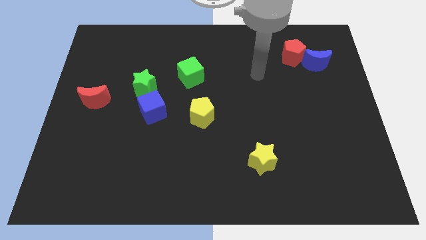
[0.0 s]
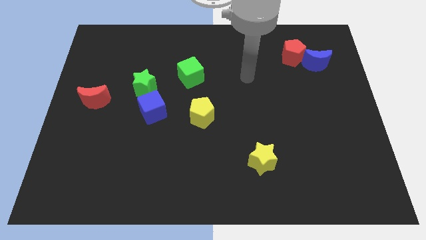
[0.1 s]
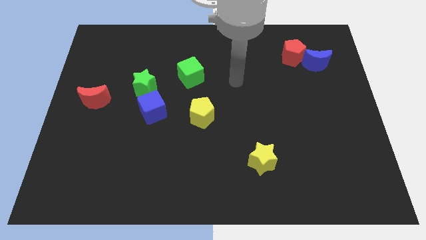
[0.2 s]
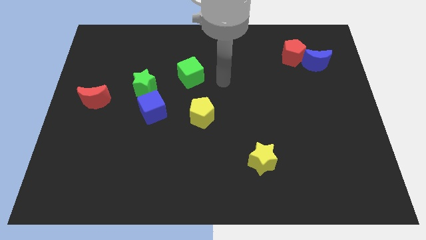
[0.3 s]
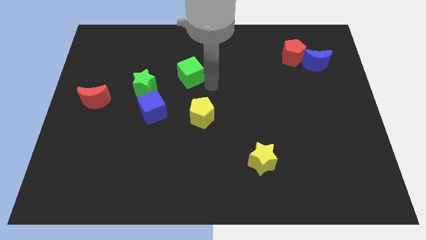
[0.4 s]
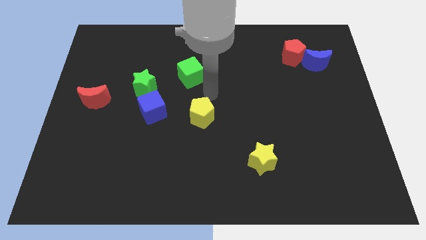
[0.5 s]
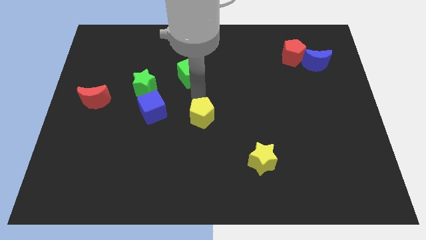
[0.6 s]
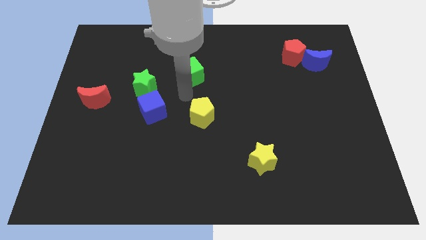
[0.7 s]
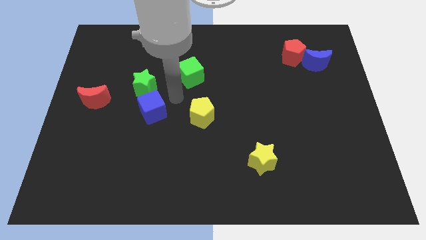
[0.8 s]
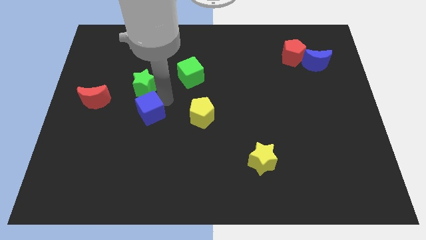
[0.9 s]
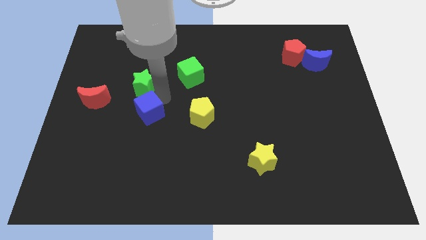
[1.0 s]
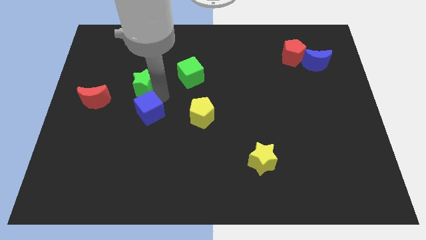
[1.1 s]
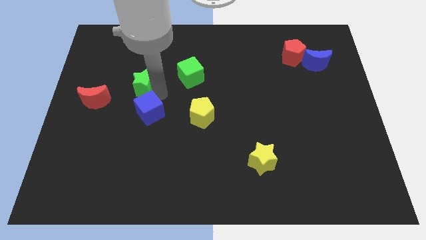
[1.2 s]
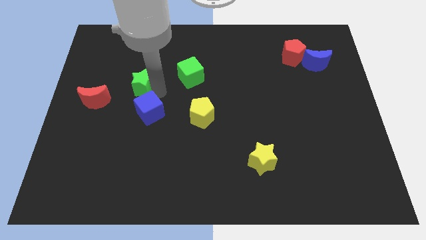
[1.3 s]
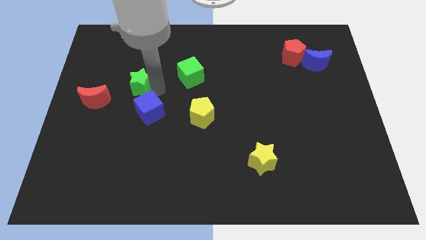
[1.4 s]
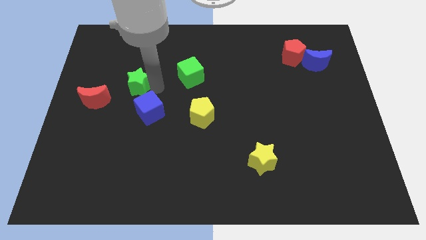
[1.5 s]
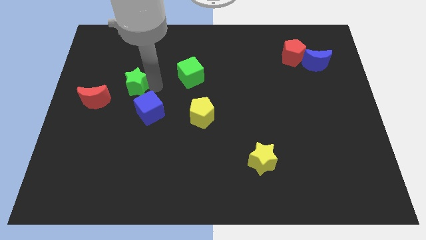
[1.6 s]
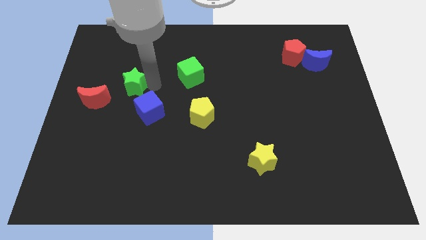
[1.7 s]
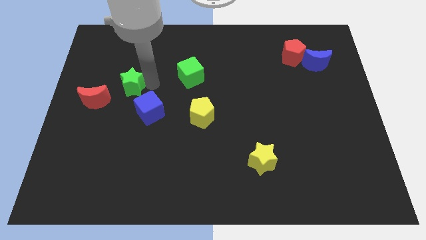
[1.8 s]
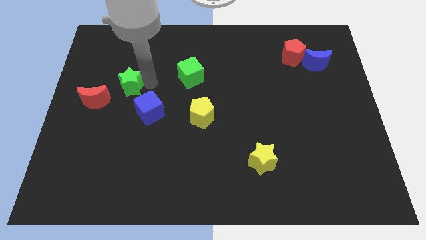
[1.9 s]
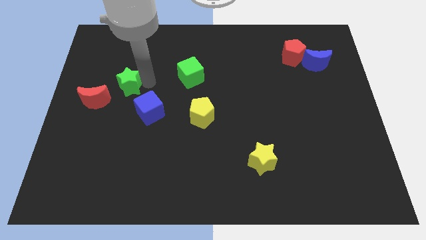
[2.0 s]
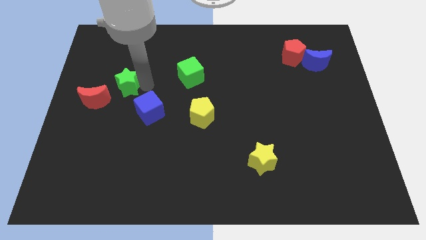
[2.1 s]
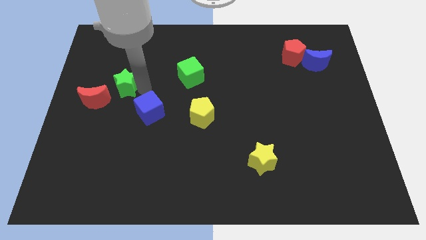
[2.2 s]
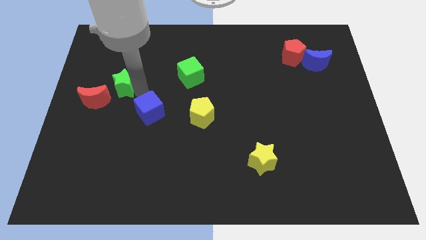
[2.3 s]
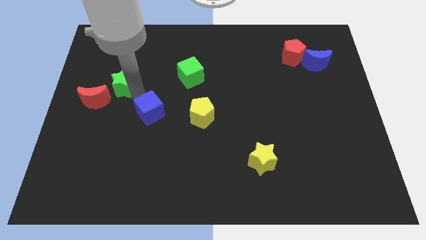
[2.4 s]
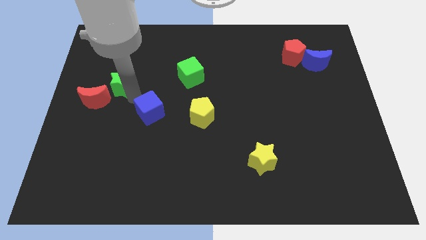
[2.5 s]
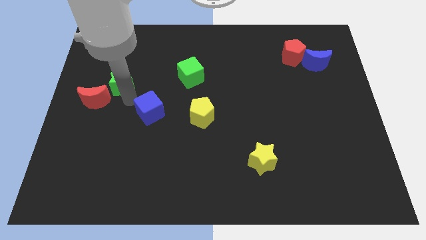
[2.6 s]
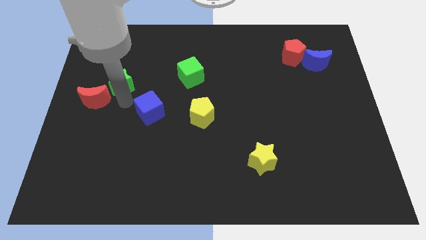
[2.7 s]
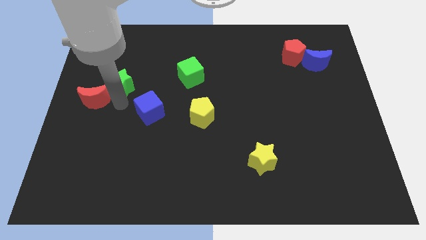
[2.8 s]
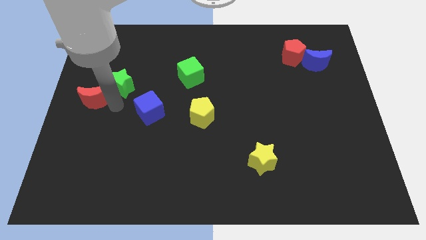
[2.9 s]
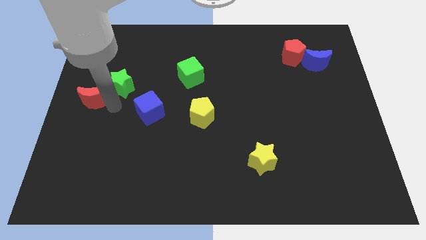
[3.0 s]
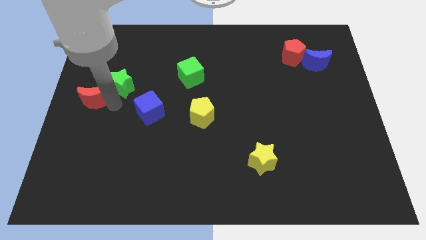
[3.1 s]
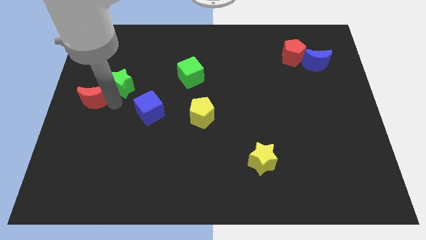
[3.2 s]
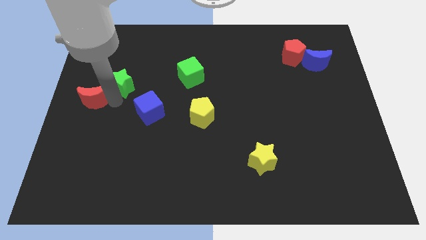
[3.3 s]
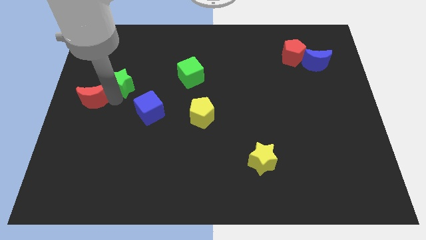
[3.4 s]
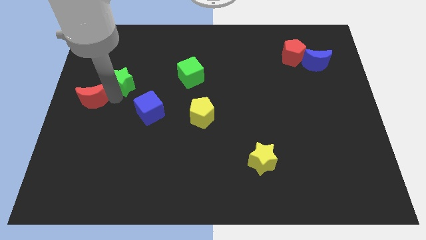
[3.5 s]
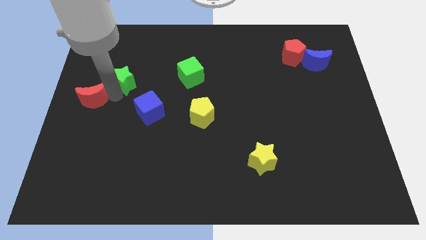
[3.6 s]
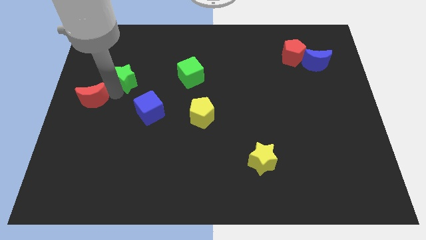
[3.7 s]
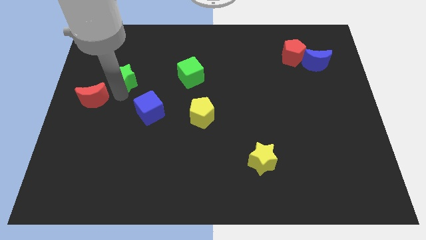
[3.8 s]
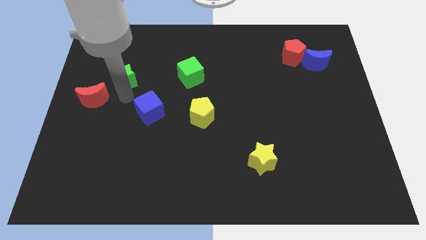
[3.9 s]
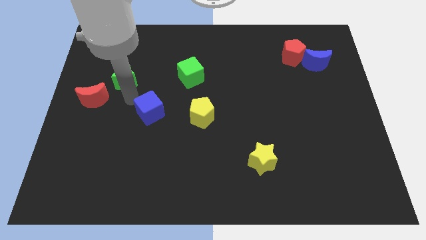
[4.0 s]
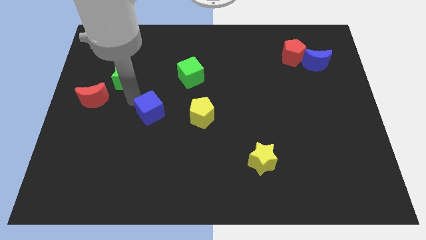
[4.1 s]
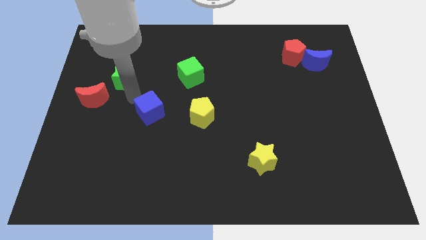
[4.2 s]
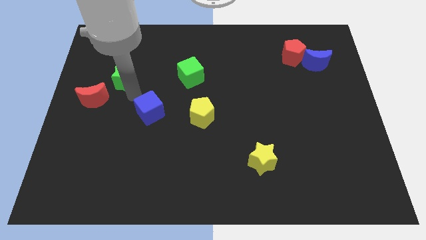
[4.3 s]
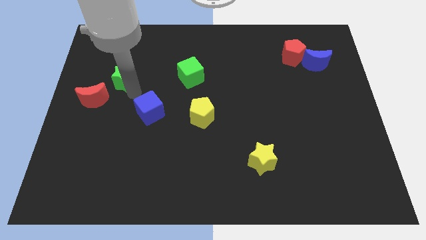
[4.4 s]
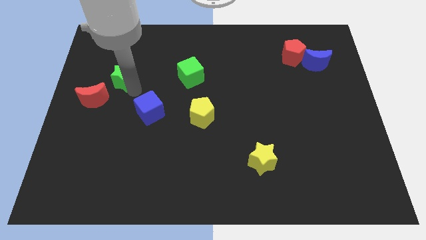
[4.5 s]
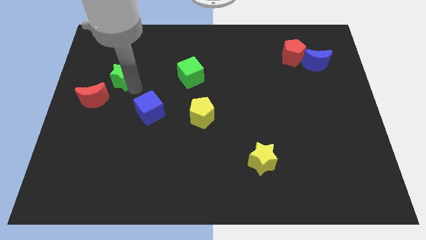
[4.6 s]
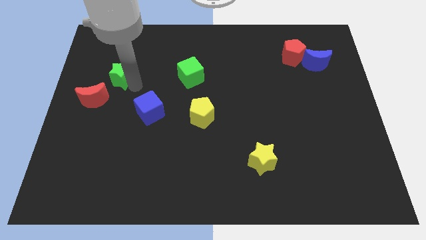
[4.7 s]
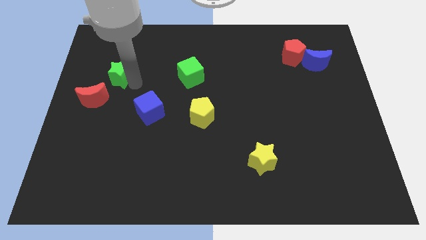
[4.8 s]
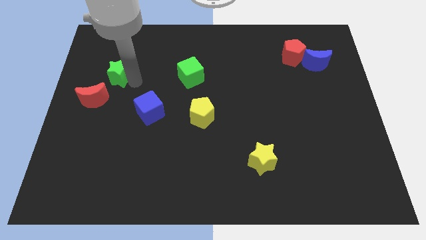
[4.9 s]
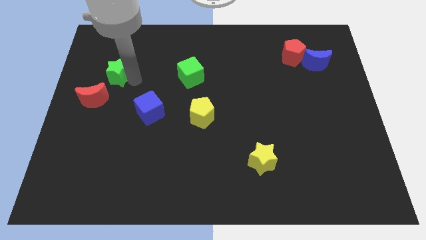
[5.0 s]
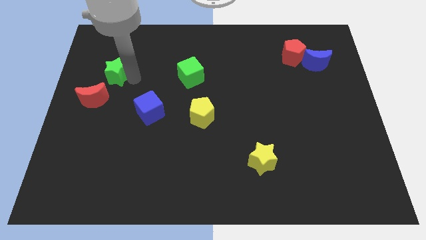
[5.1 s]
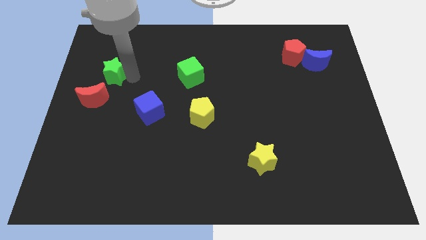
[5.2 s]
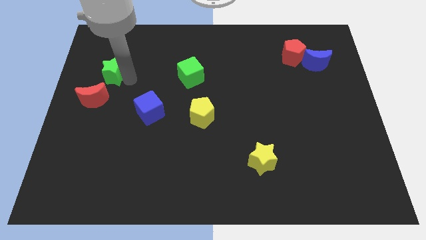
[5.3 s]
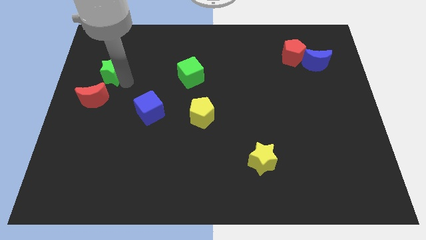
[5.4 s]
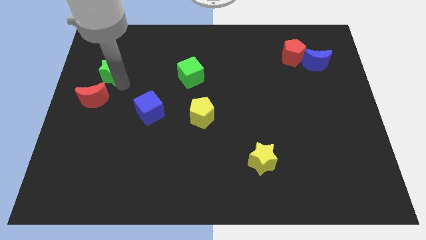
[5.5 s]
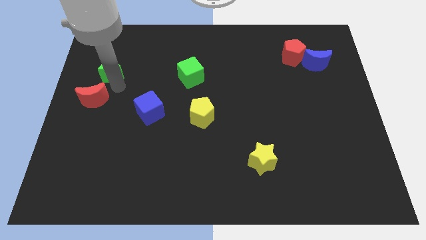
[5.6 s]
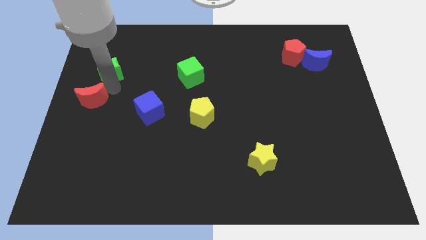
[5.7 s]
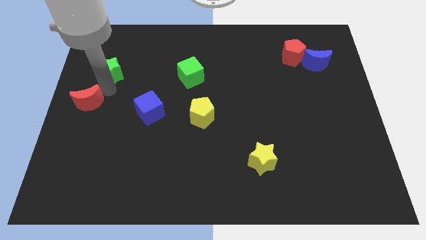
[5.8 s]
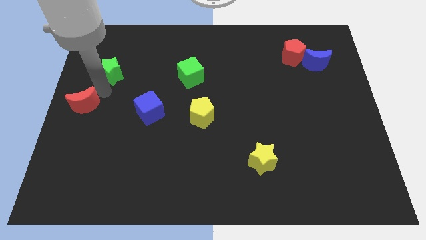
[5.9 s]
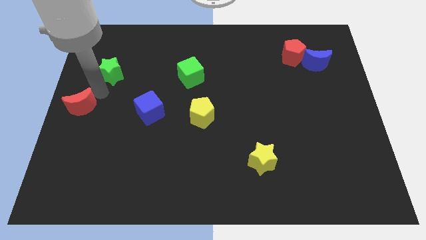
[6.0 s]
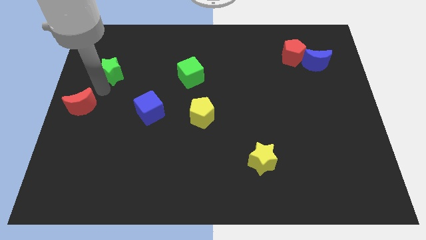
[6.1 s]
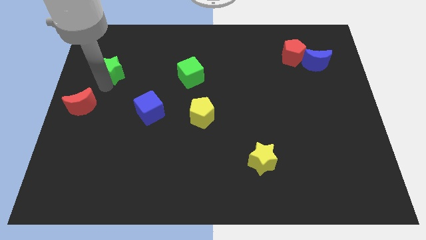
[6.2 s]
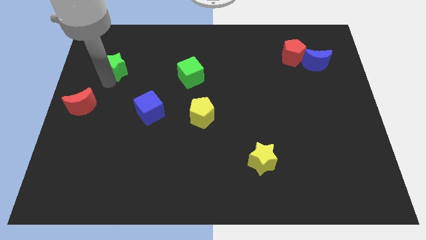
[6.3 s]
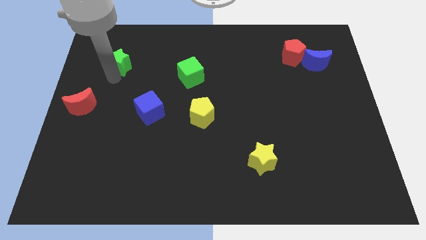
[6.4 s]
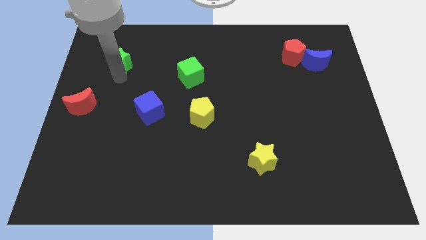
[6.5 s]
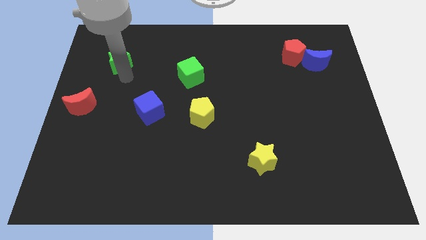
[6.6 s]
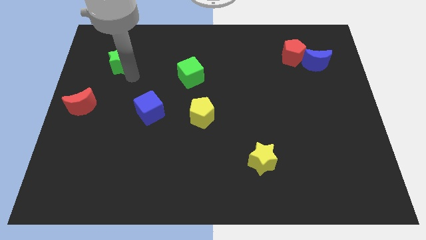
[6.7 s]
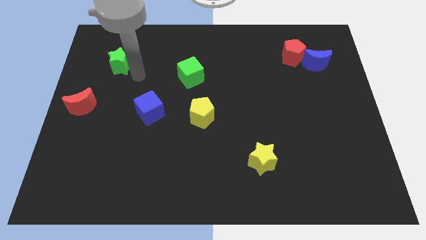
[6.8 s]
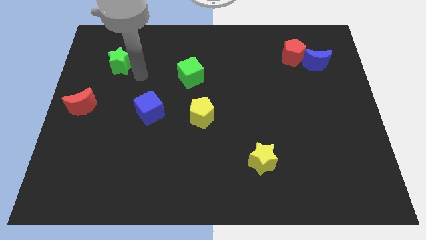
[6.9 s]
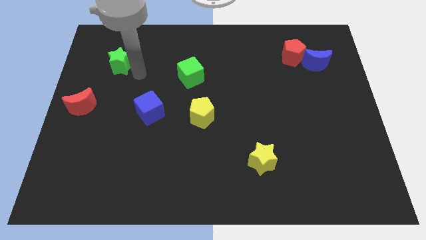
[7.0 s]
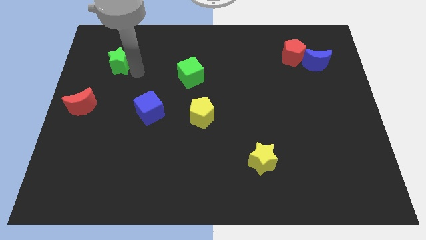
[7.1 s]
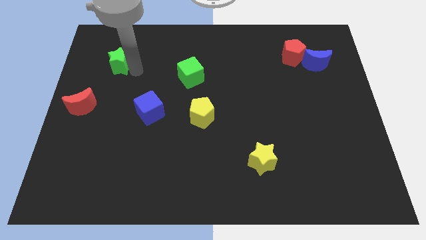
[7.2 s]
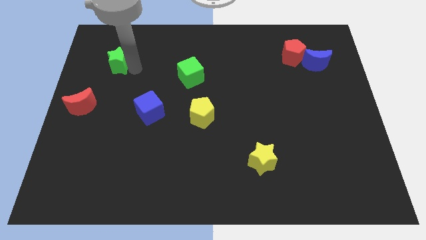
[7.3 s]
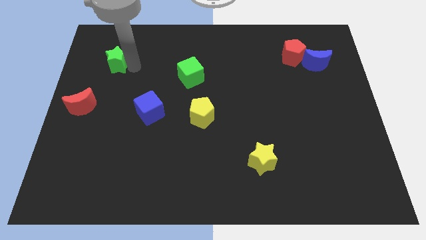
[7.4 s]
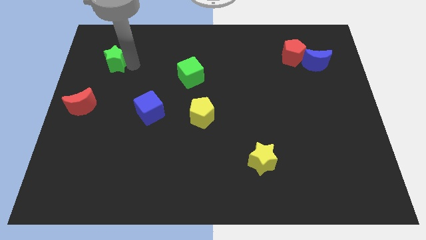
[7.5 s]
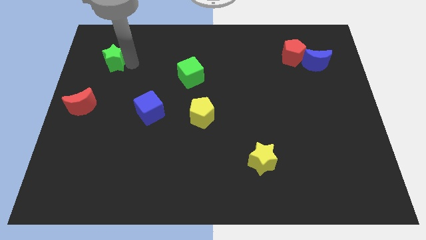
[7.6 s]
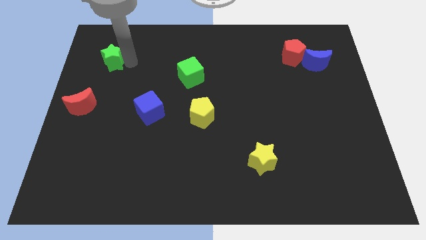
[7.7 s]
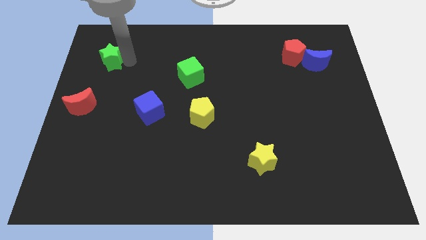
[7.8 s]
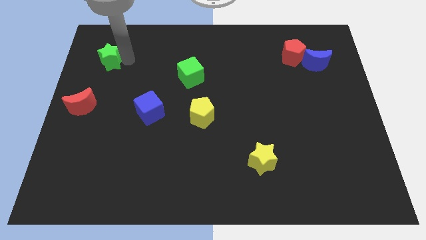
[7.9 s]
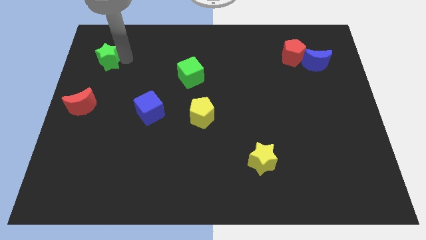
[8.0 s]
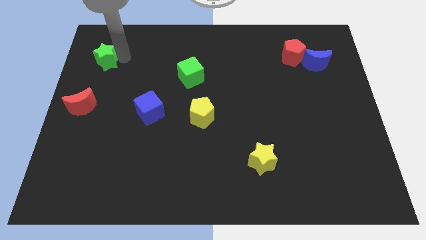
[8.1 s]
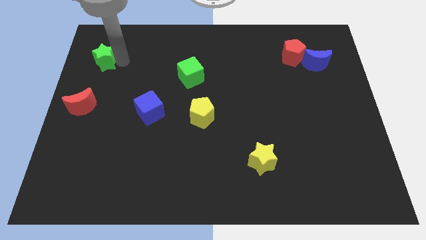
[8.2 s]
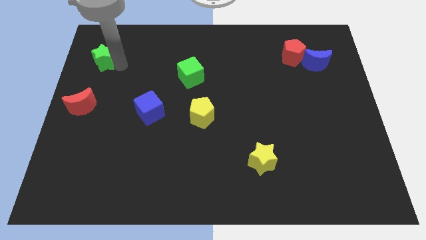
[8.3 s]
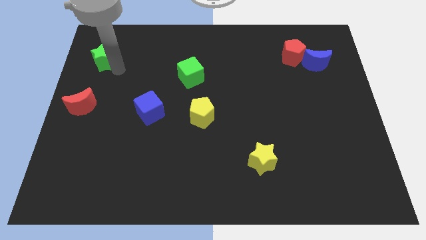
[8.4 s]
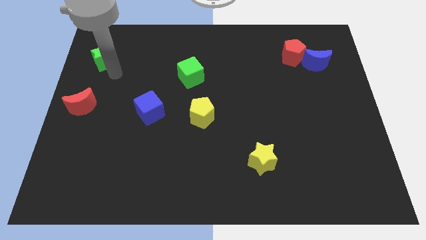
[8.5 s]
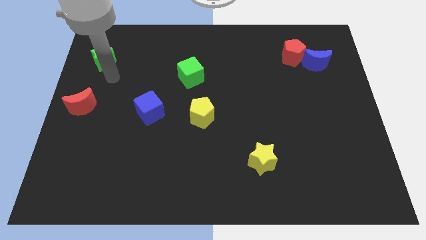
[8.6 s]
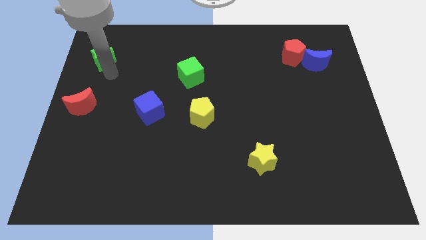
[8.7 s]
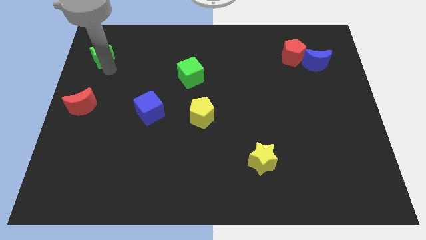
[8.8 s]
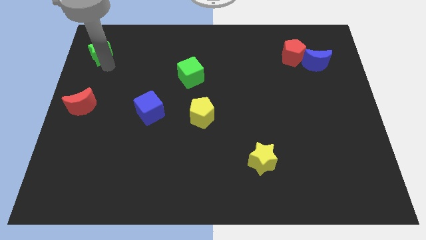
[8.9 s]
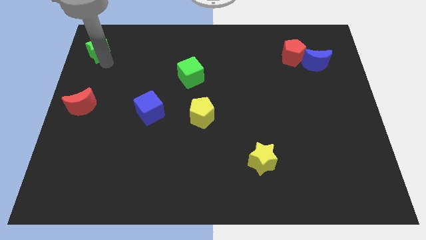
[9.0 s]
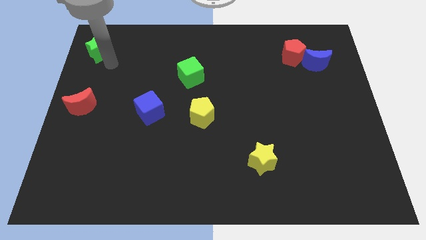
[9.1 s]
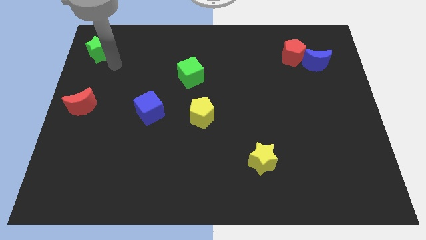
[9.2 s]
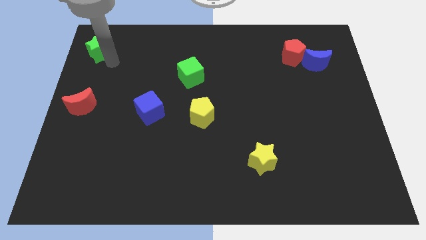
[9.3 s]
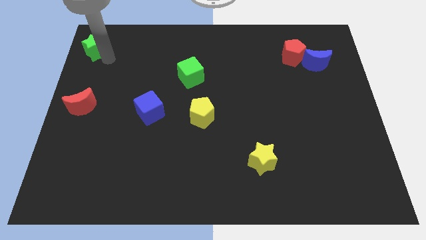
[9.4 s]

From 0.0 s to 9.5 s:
move the green star to the top left corner
